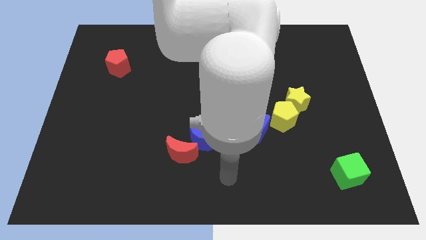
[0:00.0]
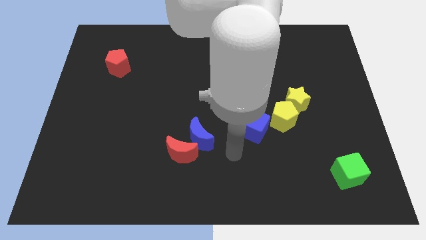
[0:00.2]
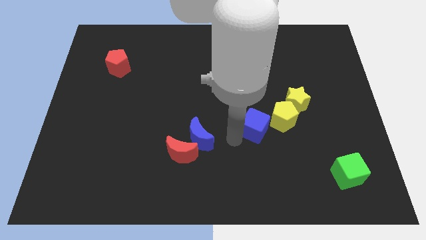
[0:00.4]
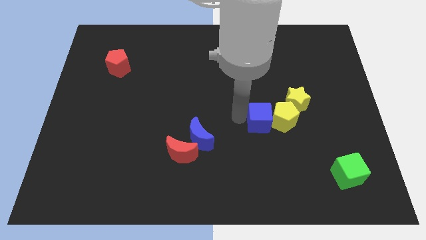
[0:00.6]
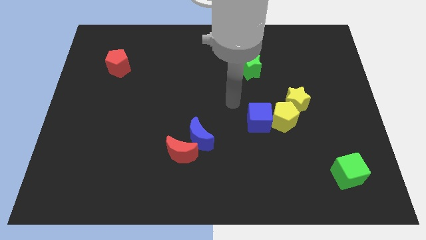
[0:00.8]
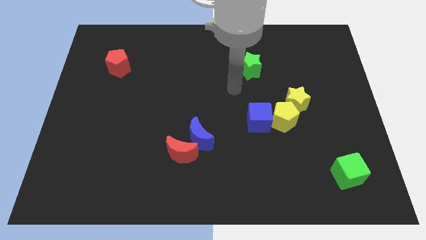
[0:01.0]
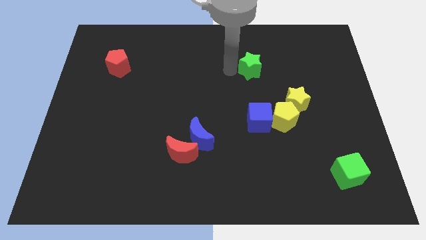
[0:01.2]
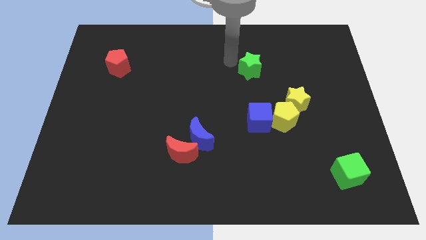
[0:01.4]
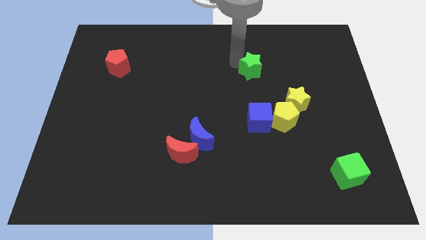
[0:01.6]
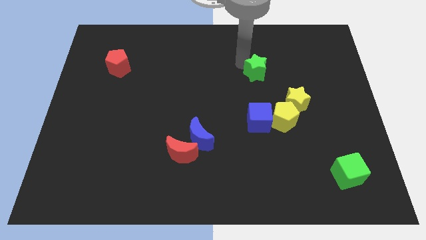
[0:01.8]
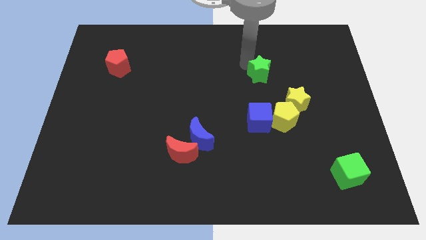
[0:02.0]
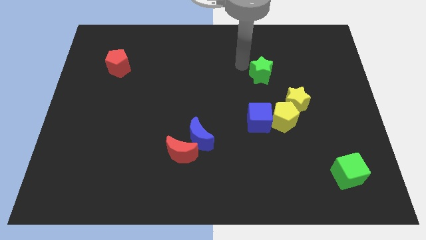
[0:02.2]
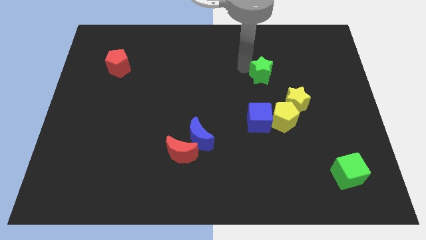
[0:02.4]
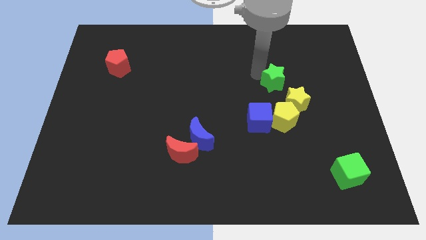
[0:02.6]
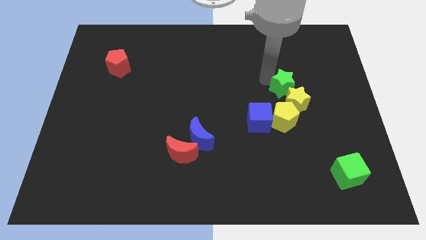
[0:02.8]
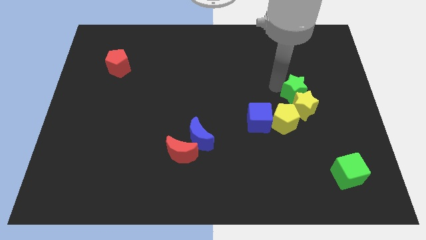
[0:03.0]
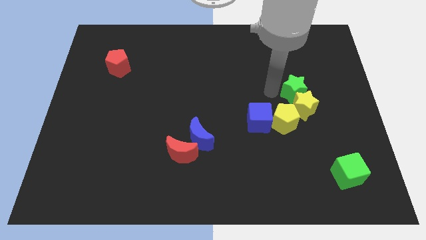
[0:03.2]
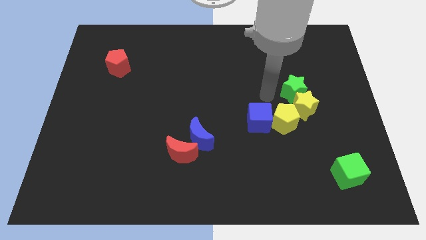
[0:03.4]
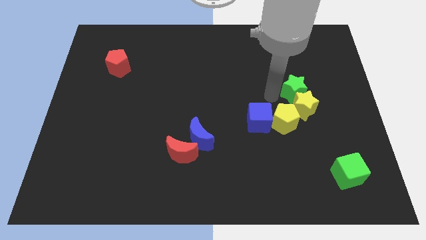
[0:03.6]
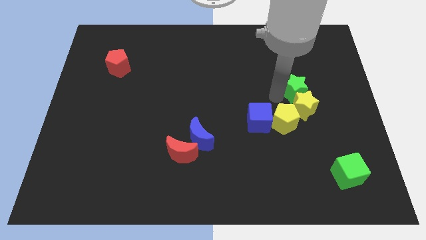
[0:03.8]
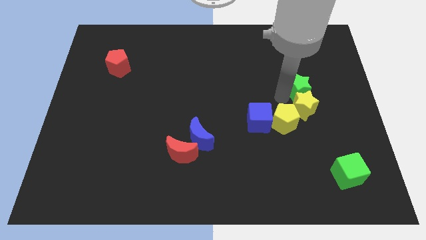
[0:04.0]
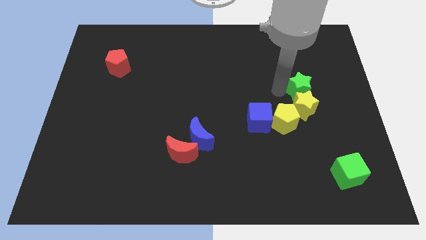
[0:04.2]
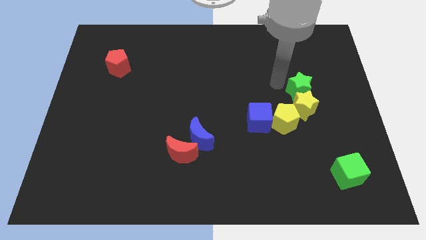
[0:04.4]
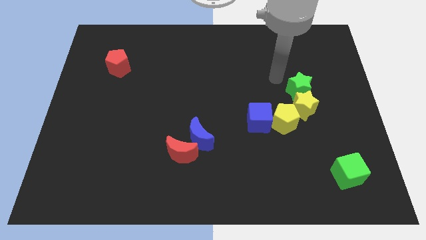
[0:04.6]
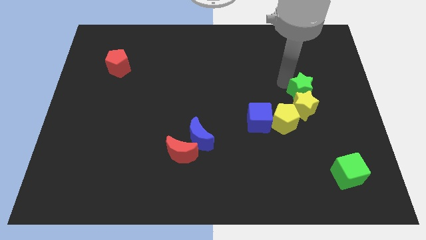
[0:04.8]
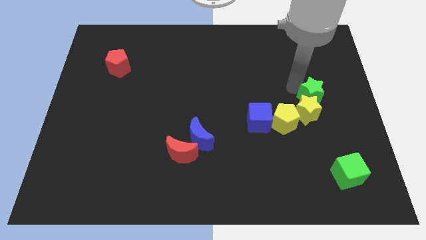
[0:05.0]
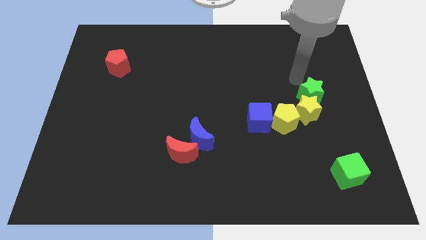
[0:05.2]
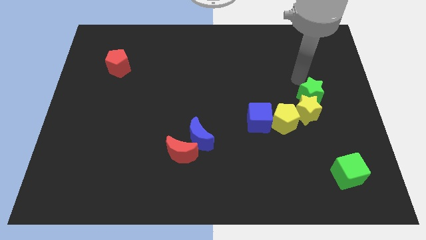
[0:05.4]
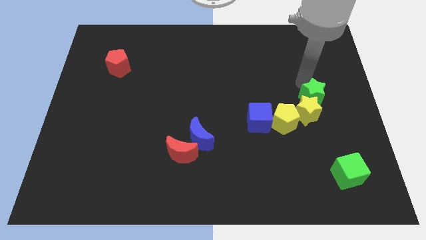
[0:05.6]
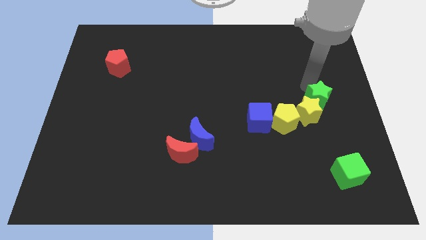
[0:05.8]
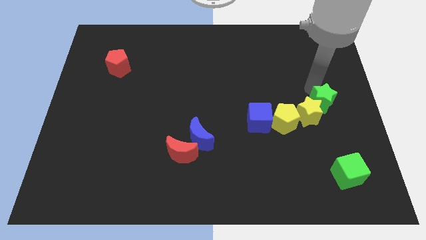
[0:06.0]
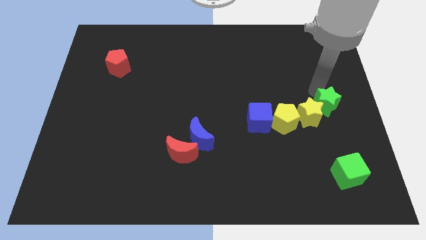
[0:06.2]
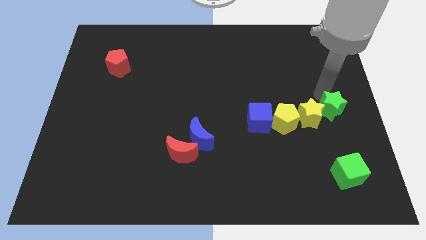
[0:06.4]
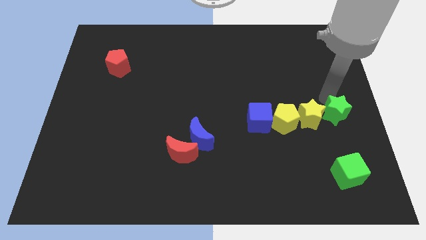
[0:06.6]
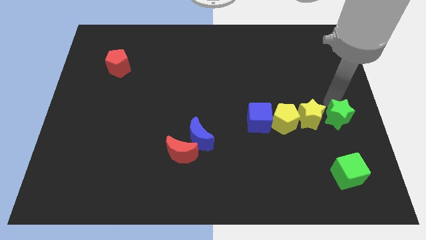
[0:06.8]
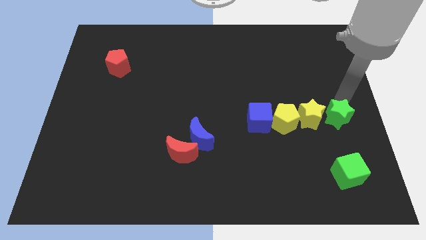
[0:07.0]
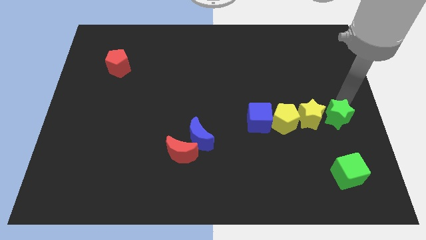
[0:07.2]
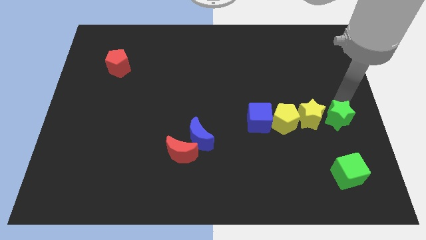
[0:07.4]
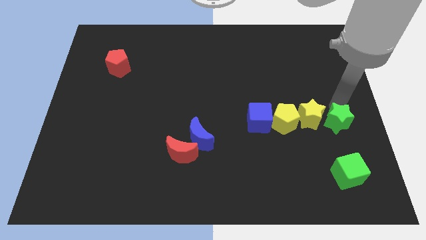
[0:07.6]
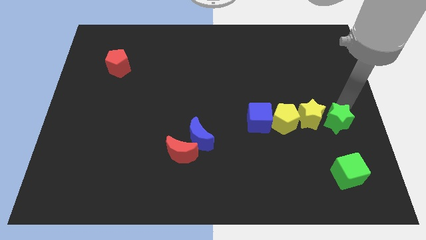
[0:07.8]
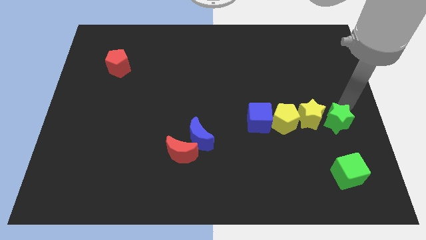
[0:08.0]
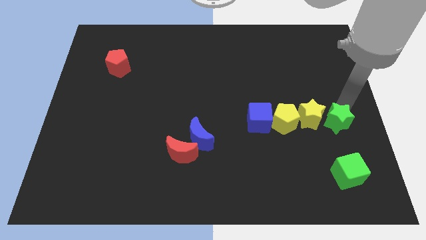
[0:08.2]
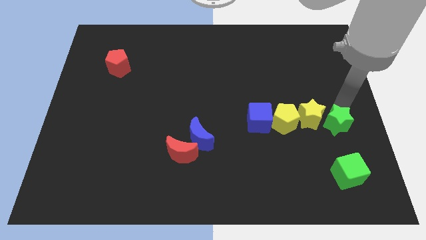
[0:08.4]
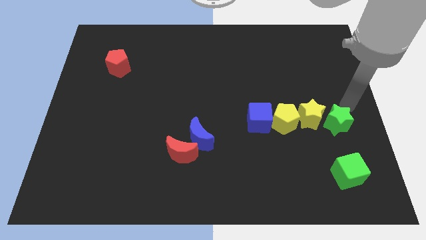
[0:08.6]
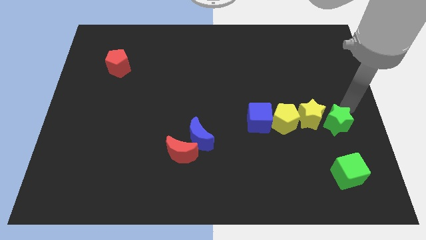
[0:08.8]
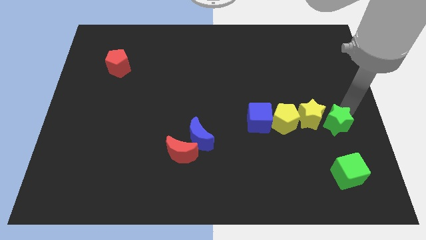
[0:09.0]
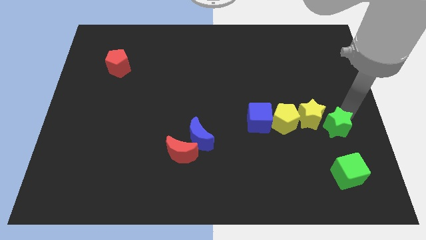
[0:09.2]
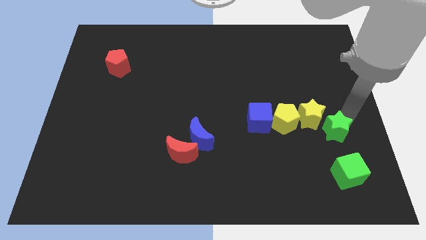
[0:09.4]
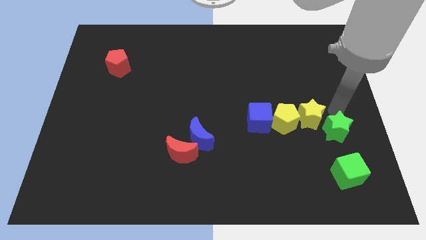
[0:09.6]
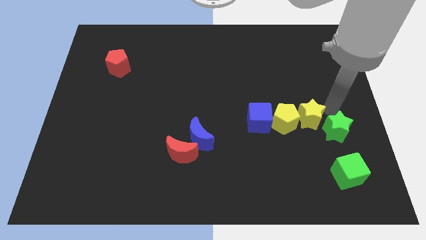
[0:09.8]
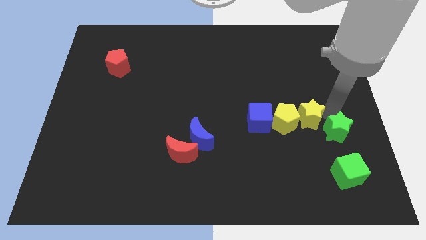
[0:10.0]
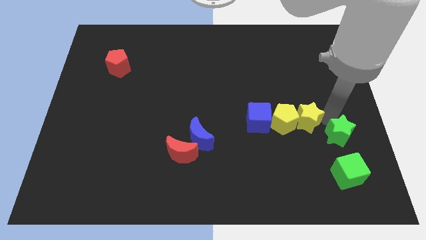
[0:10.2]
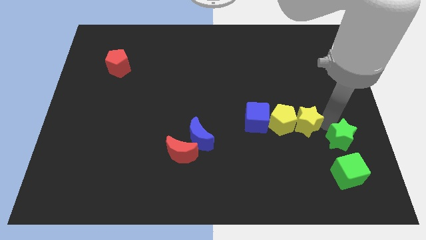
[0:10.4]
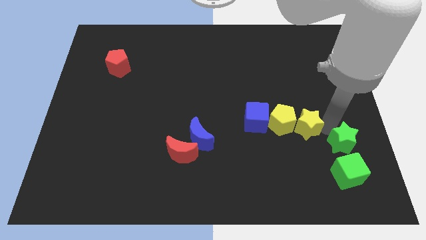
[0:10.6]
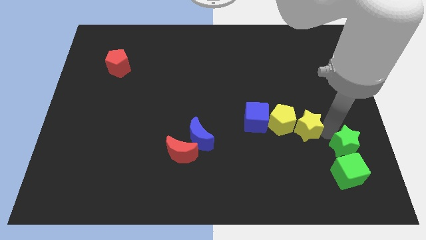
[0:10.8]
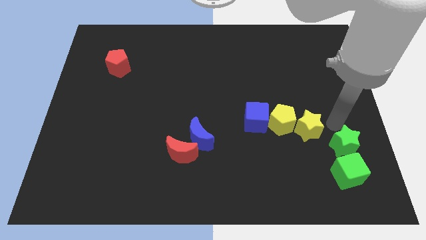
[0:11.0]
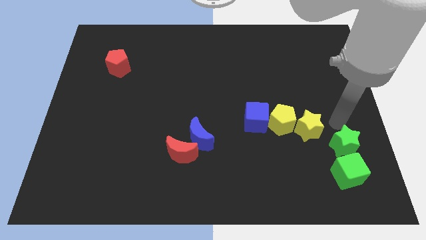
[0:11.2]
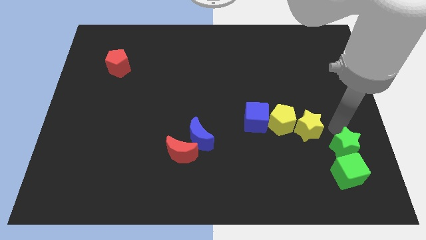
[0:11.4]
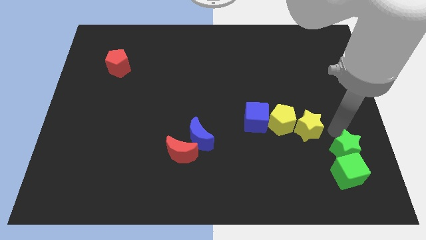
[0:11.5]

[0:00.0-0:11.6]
put the green star to the green cube

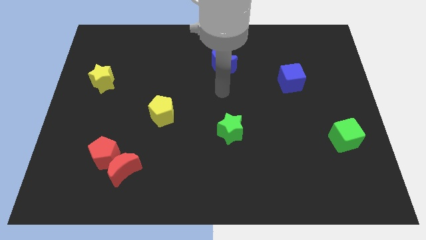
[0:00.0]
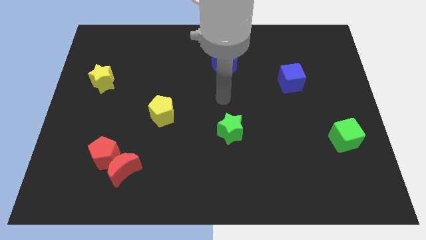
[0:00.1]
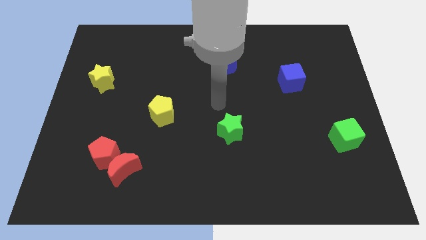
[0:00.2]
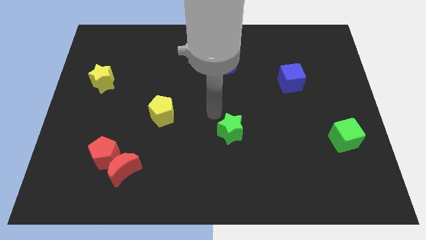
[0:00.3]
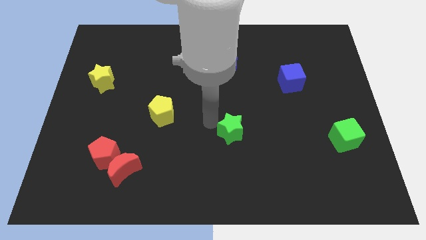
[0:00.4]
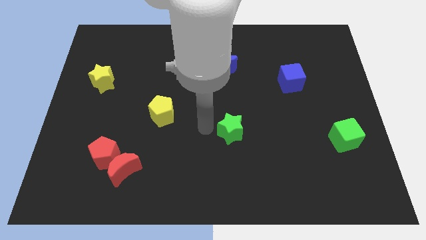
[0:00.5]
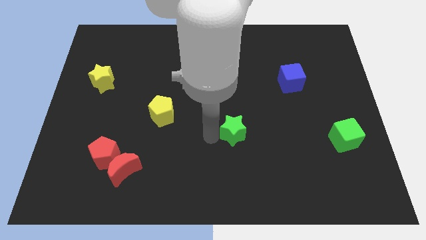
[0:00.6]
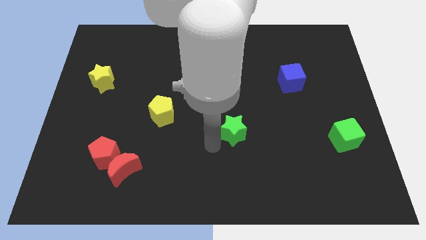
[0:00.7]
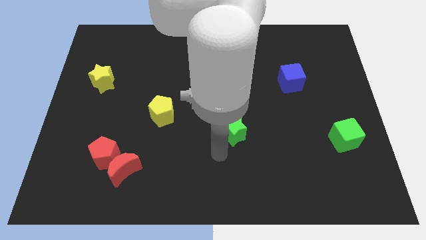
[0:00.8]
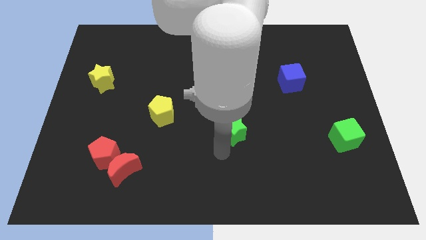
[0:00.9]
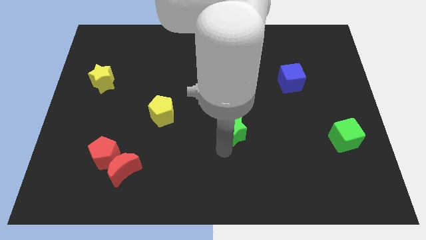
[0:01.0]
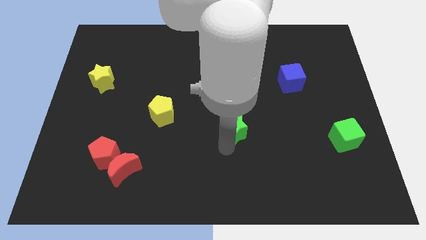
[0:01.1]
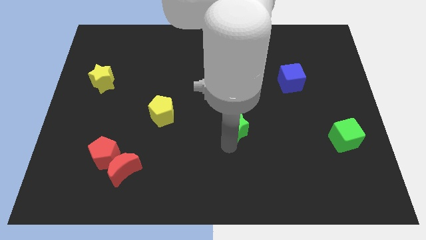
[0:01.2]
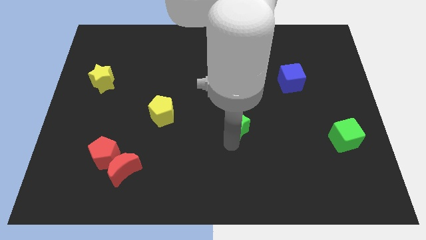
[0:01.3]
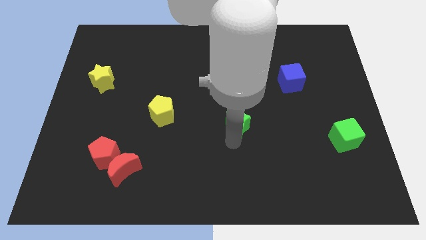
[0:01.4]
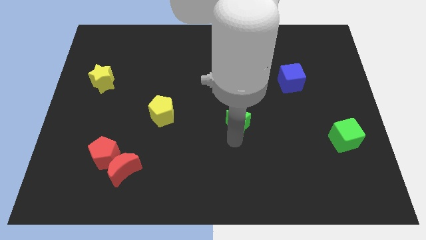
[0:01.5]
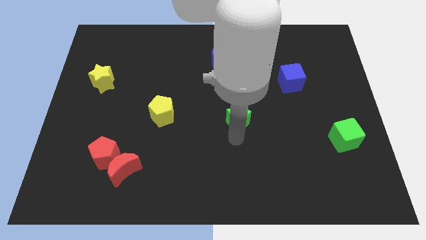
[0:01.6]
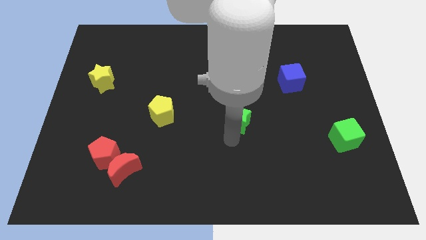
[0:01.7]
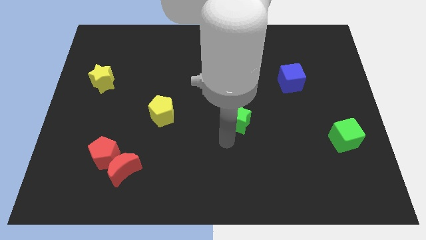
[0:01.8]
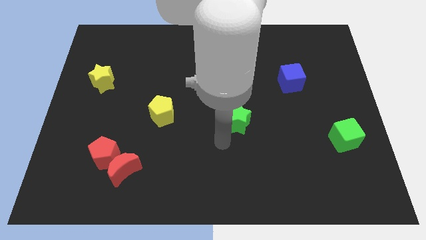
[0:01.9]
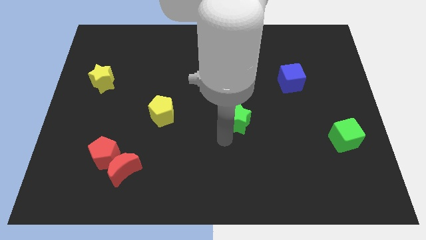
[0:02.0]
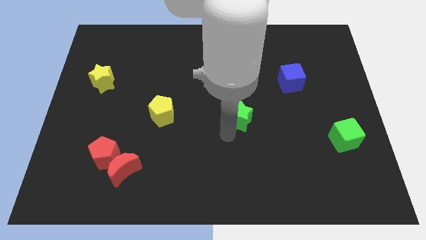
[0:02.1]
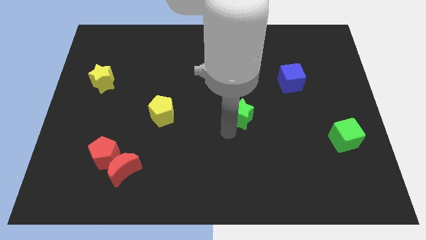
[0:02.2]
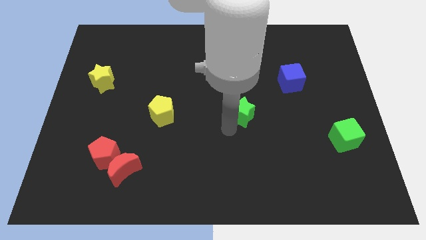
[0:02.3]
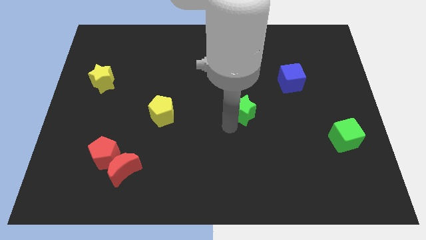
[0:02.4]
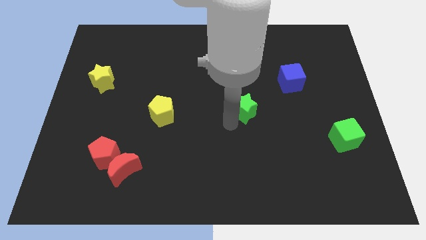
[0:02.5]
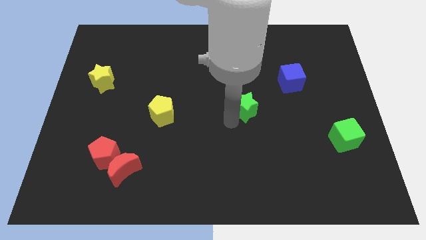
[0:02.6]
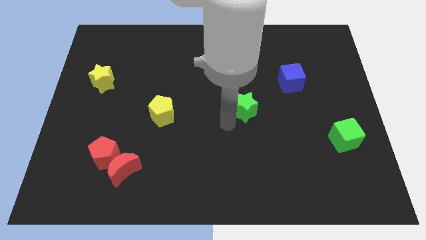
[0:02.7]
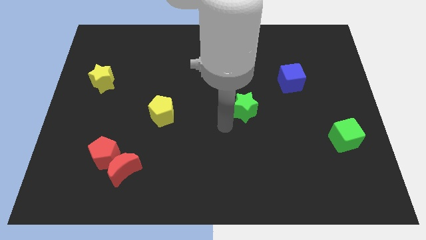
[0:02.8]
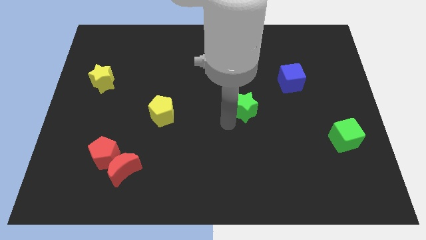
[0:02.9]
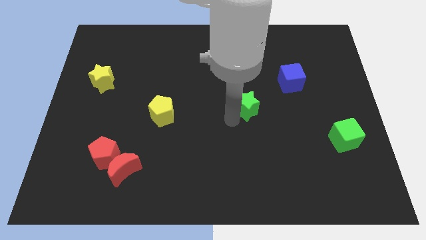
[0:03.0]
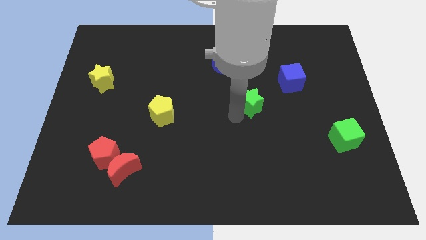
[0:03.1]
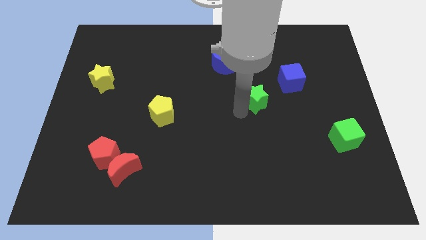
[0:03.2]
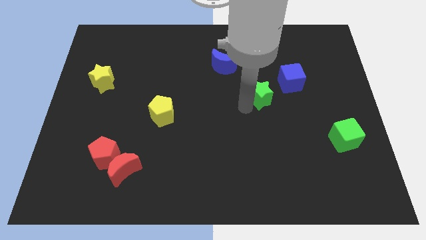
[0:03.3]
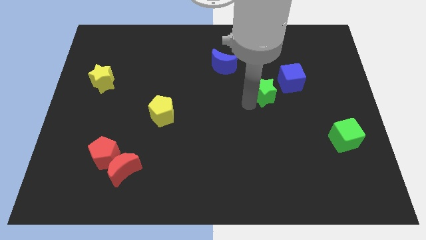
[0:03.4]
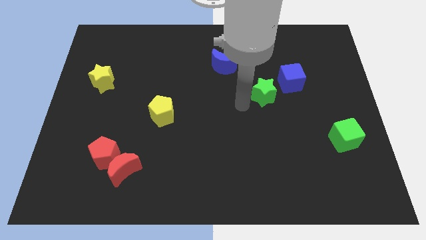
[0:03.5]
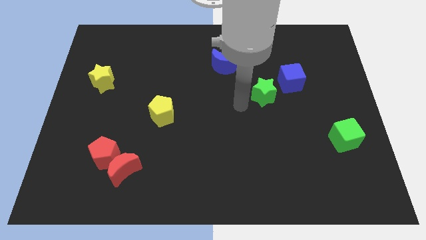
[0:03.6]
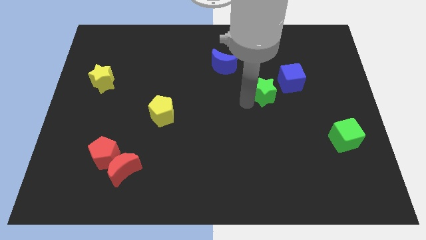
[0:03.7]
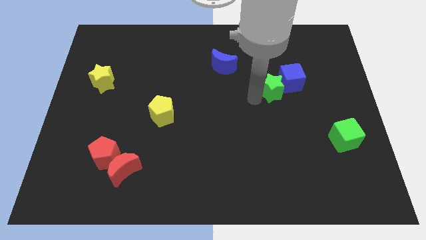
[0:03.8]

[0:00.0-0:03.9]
put the green star towards the blue cube
